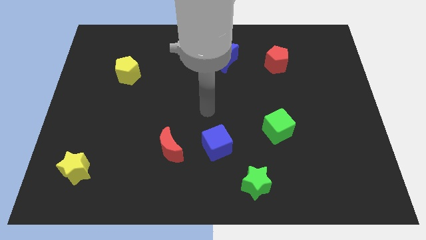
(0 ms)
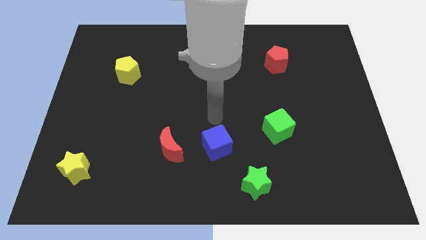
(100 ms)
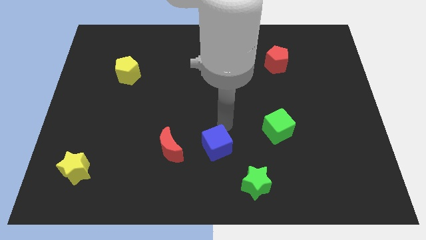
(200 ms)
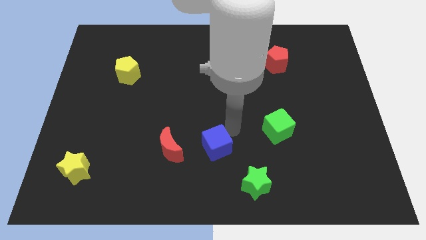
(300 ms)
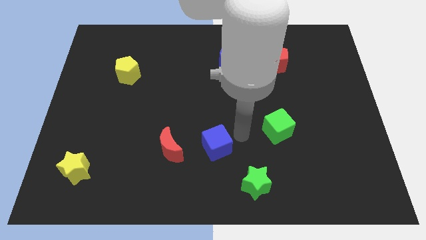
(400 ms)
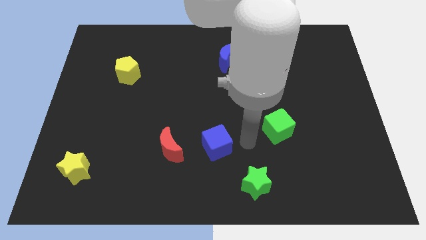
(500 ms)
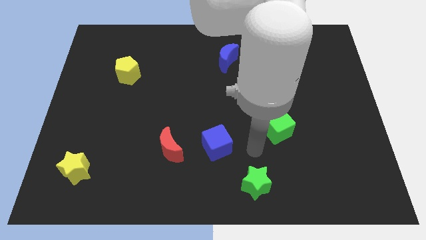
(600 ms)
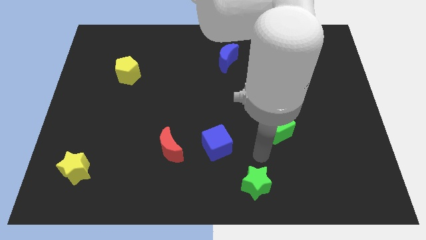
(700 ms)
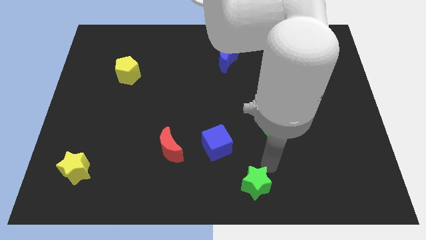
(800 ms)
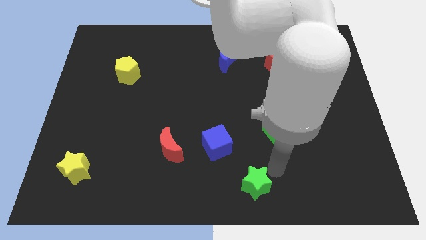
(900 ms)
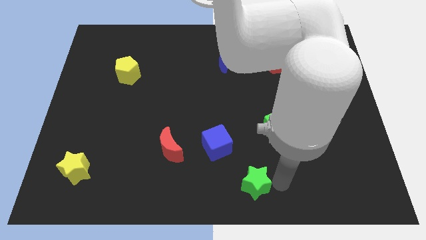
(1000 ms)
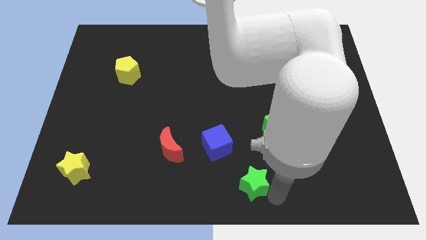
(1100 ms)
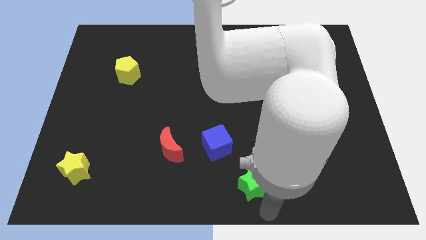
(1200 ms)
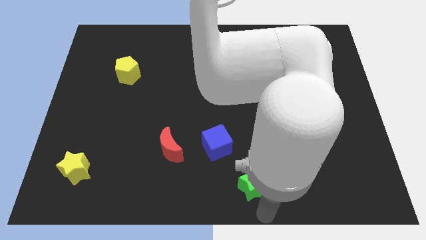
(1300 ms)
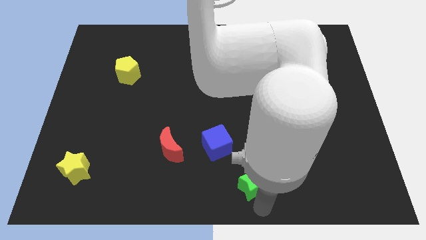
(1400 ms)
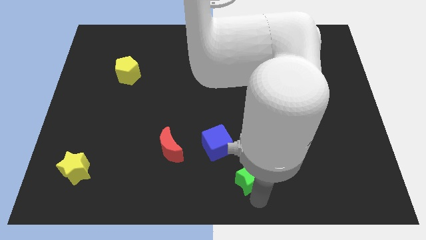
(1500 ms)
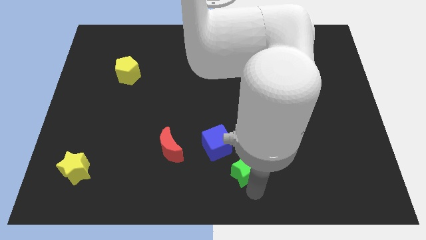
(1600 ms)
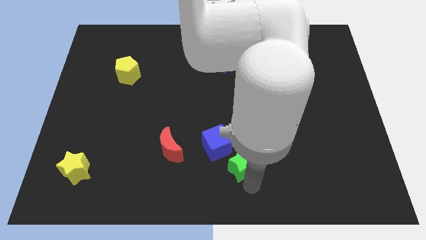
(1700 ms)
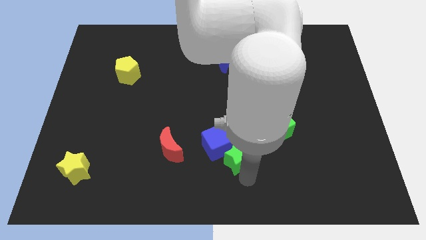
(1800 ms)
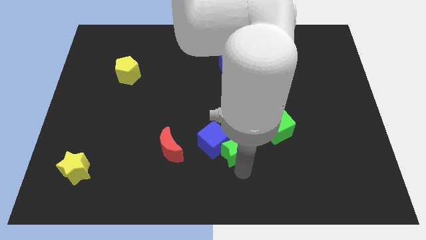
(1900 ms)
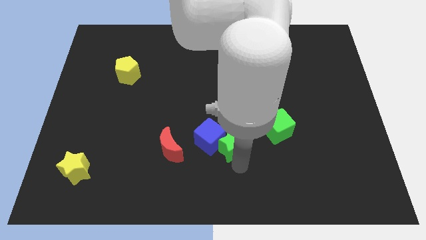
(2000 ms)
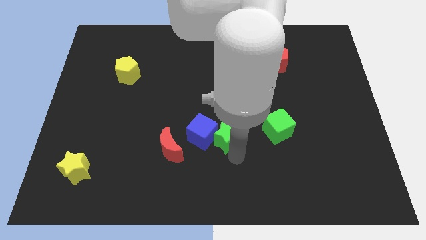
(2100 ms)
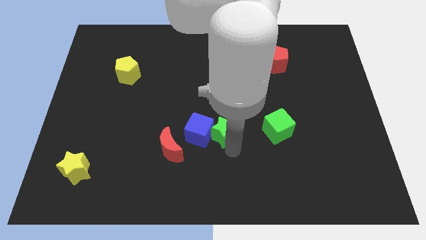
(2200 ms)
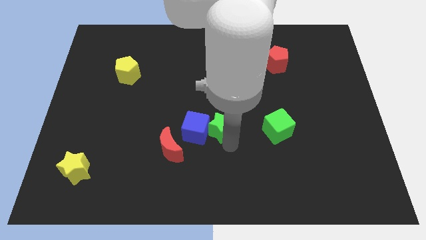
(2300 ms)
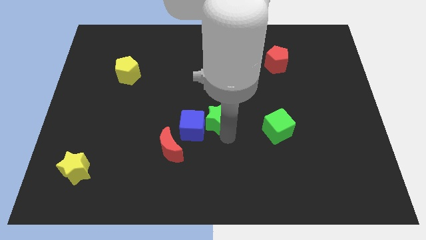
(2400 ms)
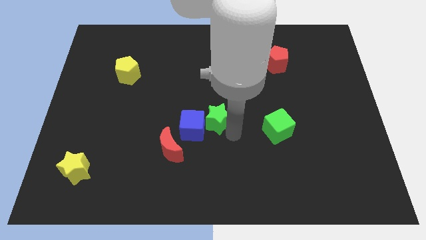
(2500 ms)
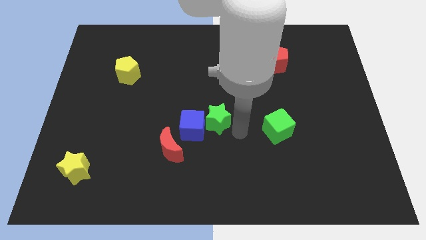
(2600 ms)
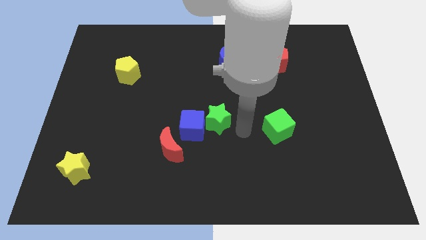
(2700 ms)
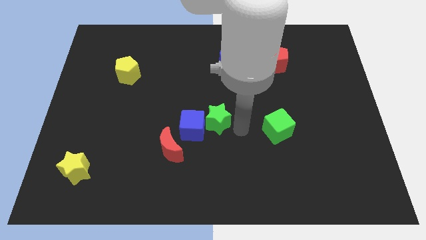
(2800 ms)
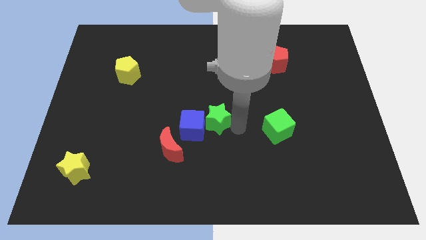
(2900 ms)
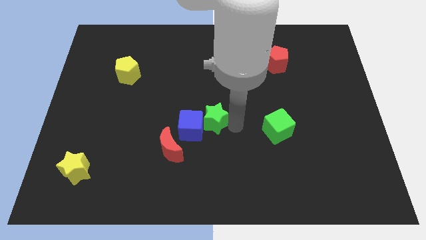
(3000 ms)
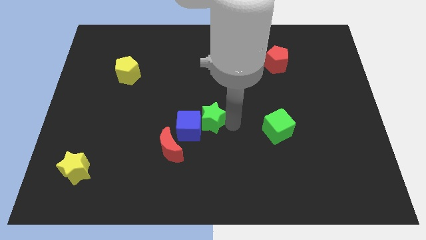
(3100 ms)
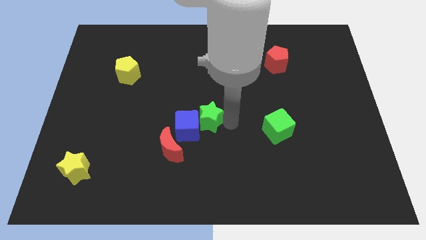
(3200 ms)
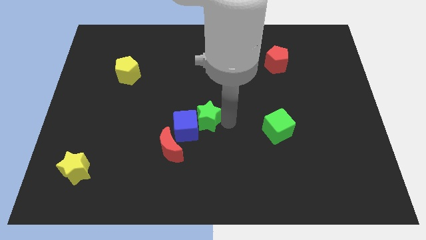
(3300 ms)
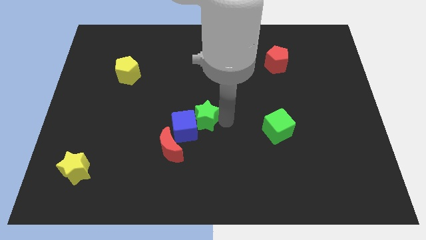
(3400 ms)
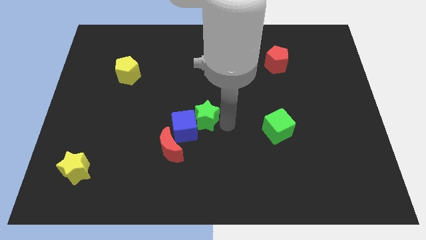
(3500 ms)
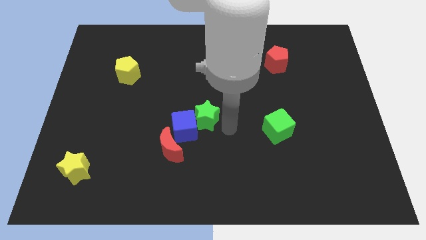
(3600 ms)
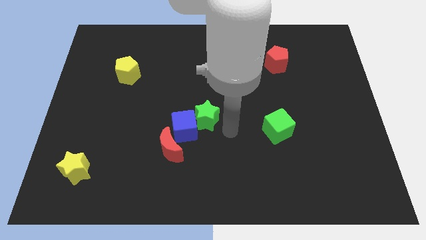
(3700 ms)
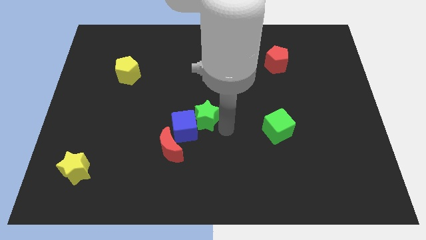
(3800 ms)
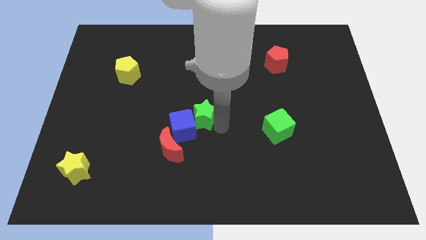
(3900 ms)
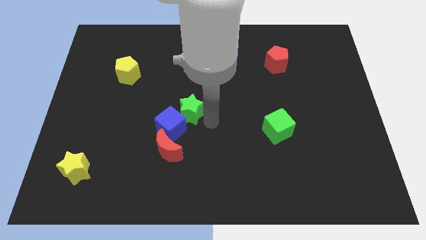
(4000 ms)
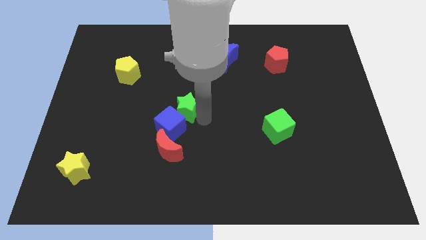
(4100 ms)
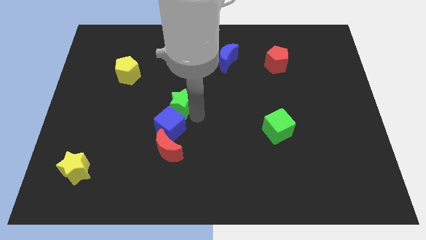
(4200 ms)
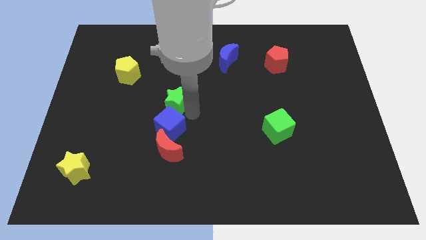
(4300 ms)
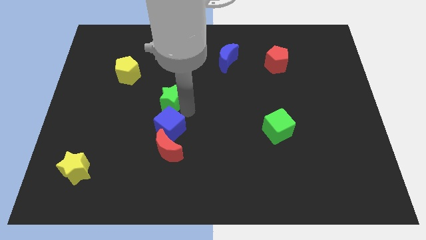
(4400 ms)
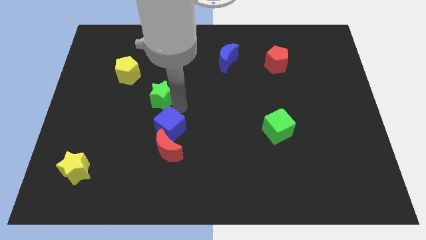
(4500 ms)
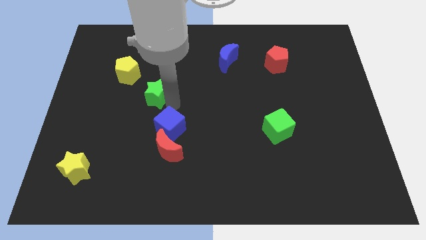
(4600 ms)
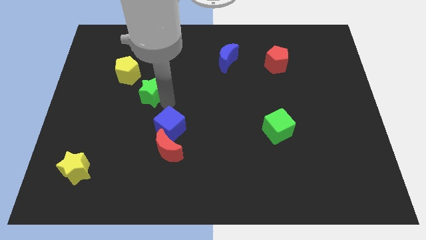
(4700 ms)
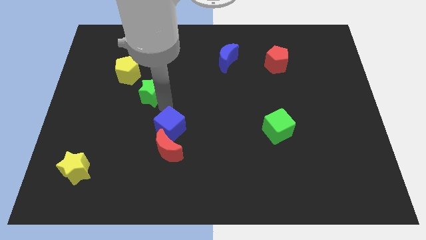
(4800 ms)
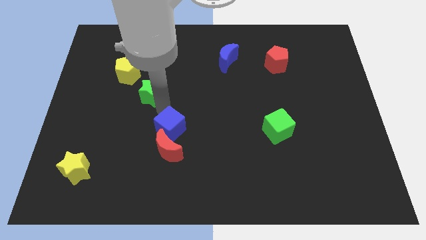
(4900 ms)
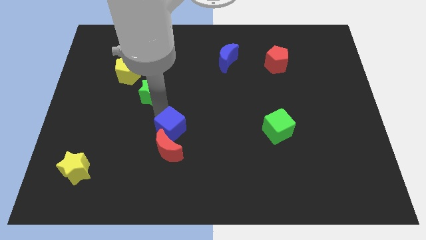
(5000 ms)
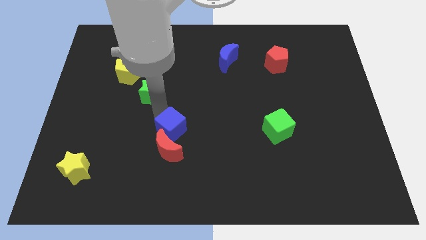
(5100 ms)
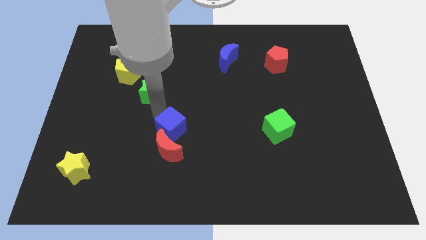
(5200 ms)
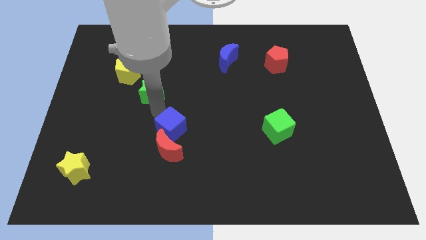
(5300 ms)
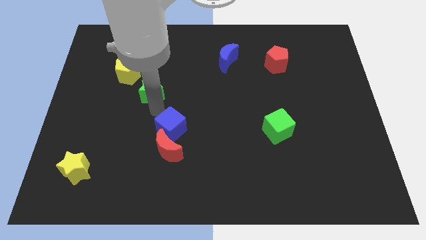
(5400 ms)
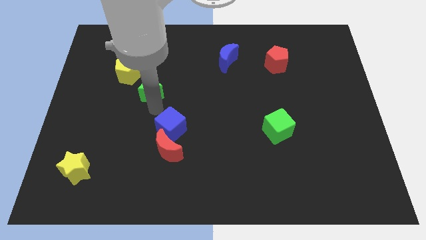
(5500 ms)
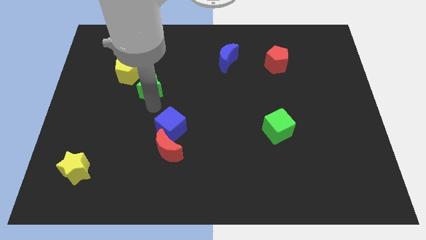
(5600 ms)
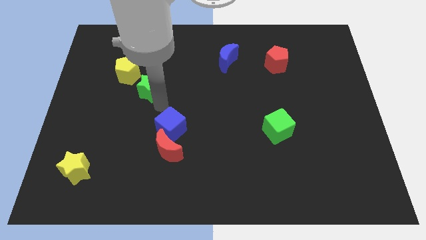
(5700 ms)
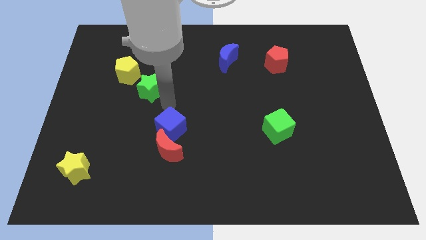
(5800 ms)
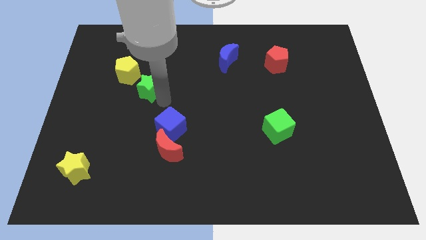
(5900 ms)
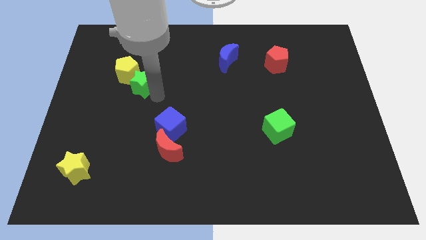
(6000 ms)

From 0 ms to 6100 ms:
push the green star to the yellow pentagon

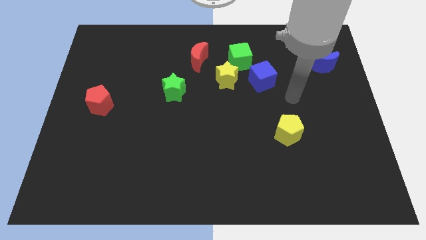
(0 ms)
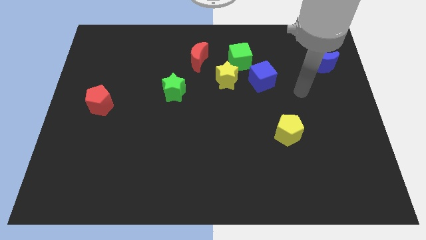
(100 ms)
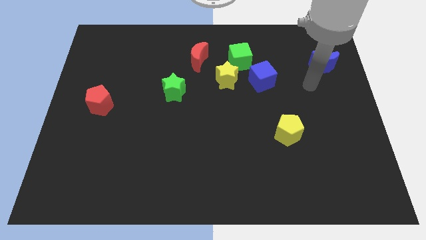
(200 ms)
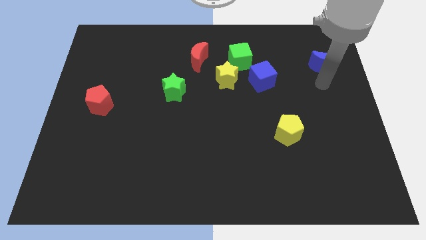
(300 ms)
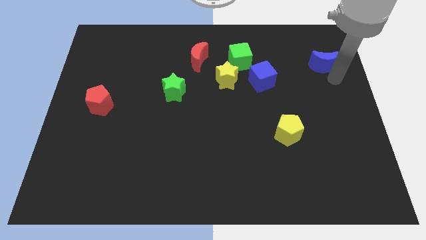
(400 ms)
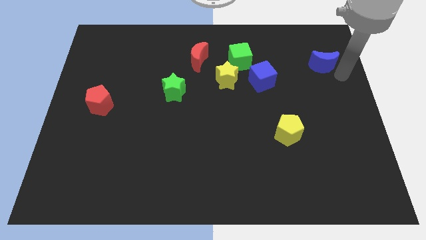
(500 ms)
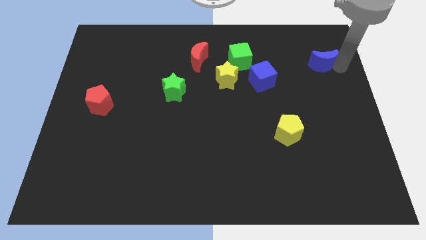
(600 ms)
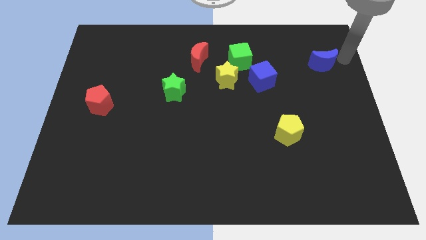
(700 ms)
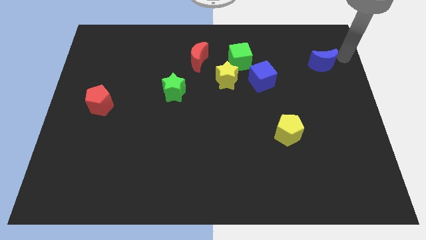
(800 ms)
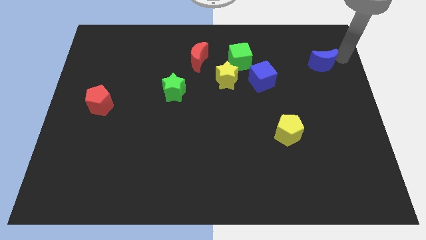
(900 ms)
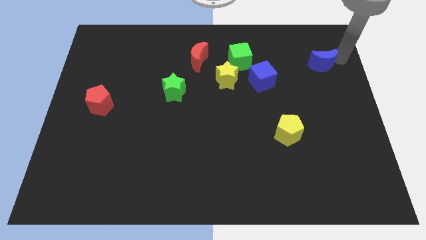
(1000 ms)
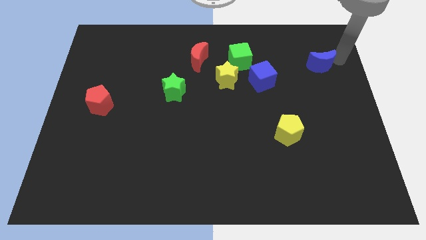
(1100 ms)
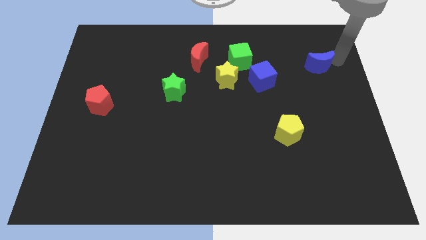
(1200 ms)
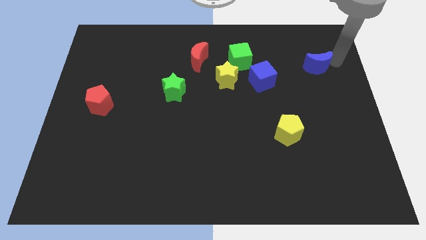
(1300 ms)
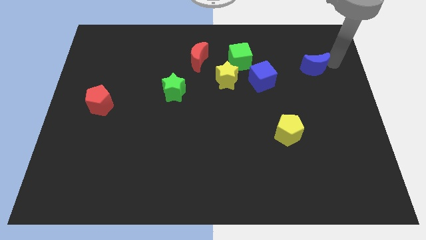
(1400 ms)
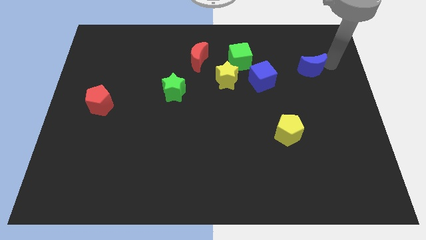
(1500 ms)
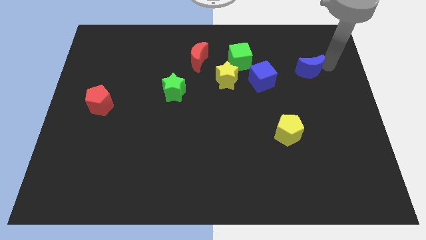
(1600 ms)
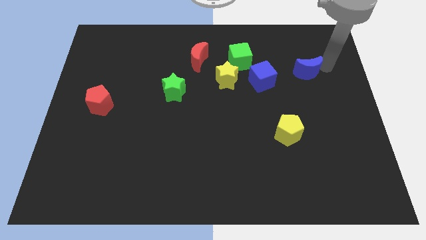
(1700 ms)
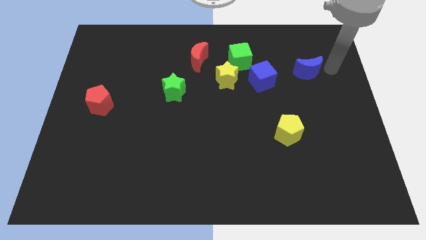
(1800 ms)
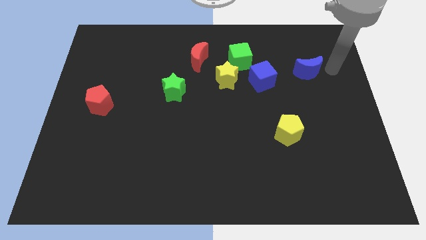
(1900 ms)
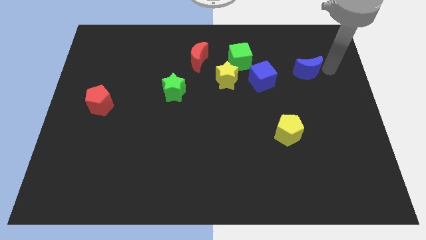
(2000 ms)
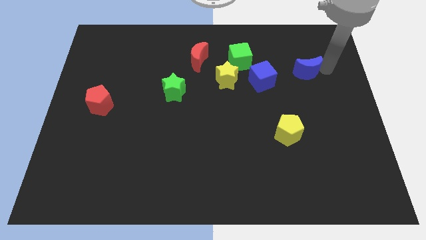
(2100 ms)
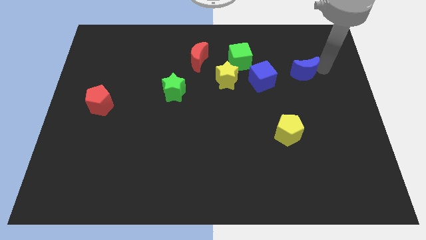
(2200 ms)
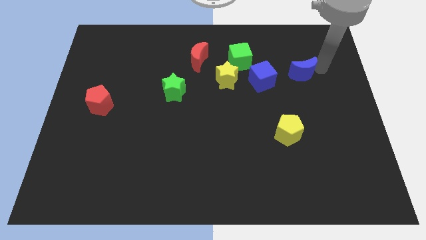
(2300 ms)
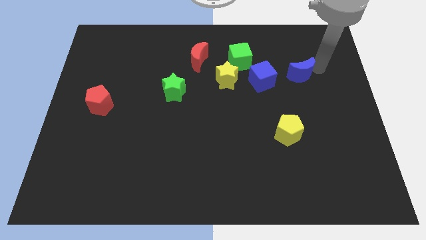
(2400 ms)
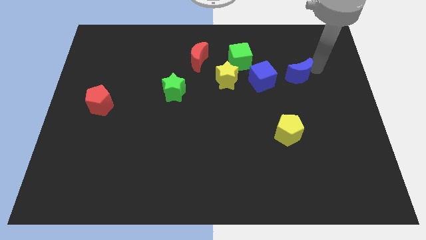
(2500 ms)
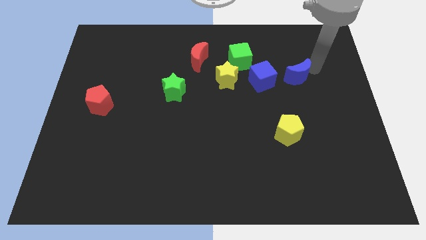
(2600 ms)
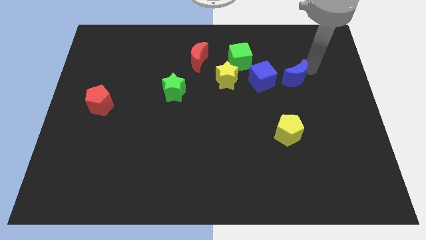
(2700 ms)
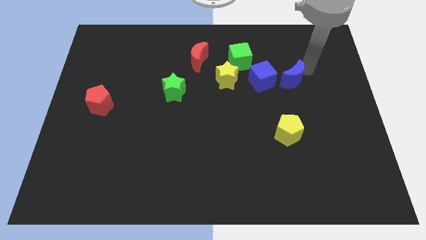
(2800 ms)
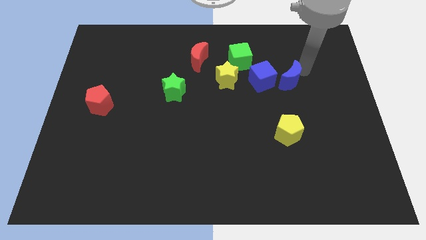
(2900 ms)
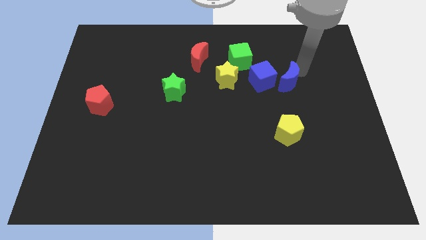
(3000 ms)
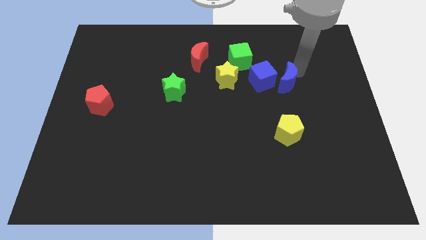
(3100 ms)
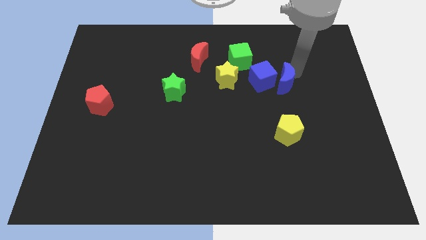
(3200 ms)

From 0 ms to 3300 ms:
slide the blue moon next to the blue cube
